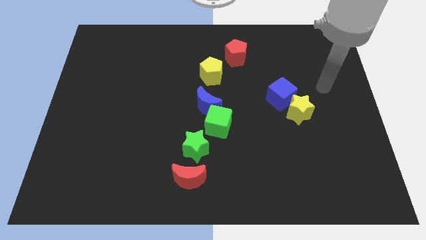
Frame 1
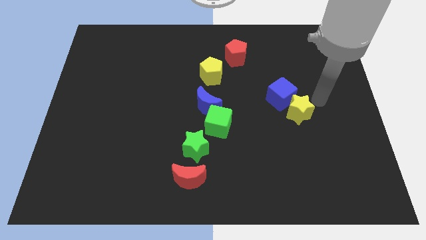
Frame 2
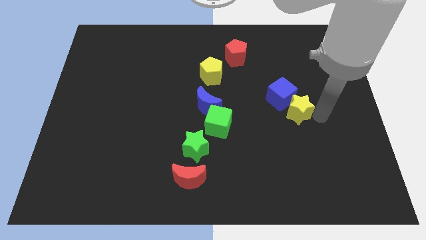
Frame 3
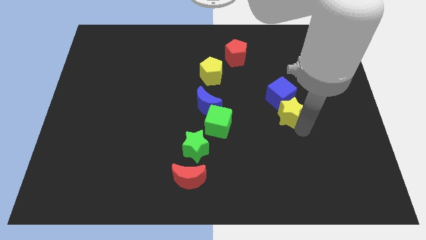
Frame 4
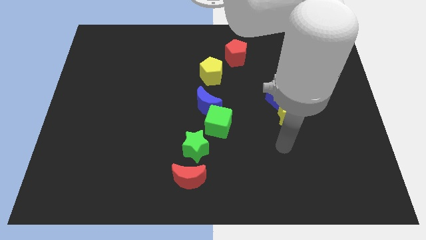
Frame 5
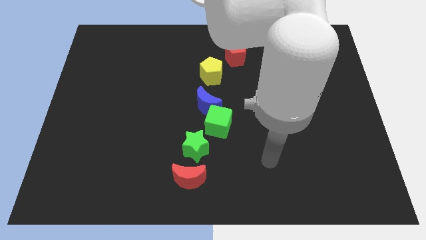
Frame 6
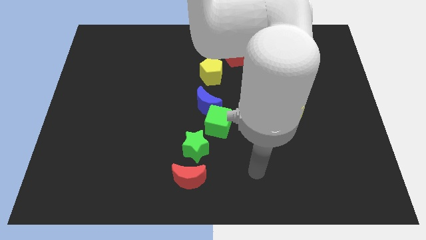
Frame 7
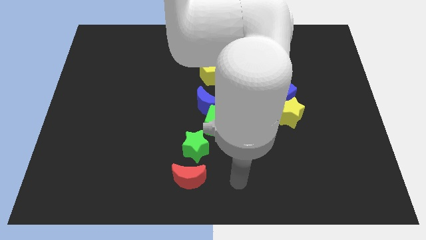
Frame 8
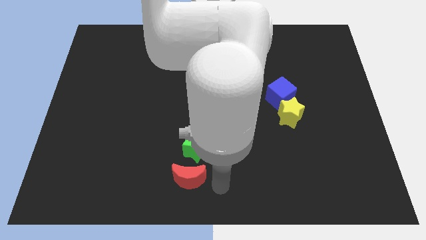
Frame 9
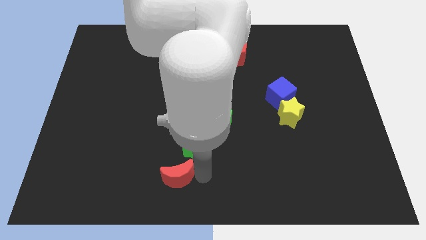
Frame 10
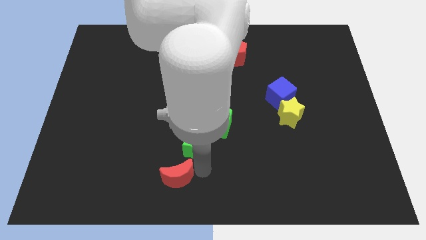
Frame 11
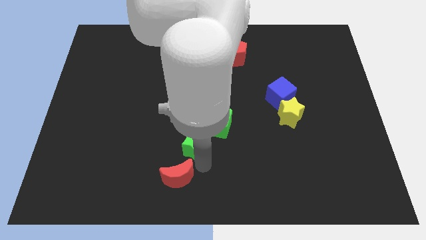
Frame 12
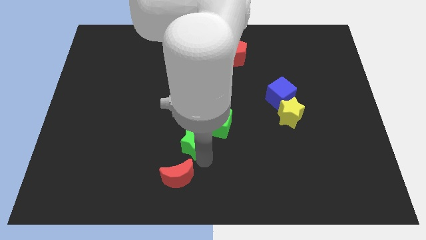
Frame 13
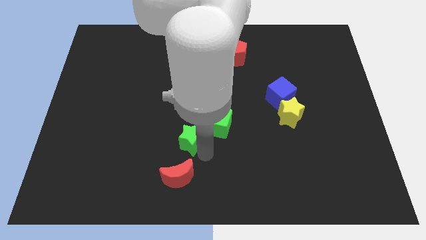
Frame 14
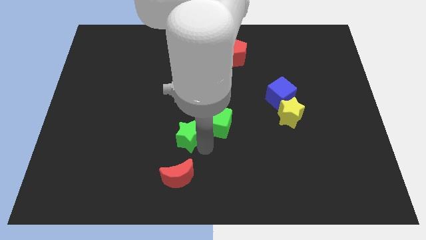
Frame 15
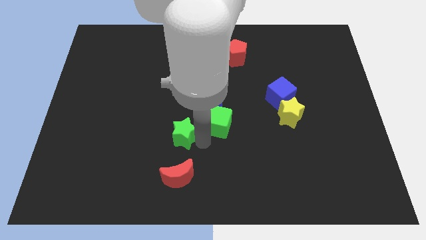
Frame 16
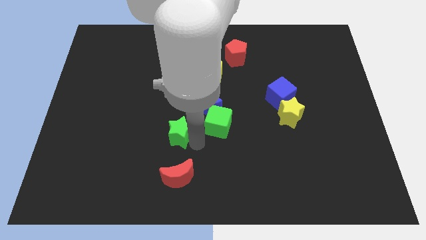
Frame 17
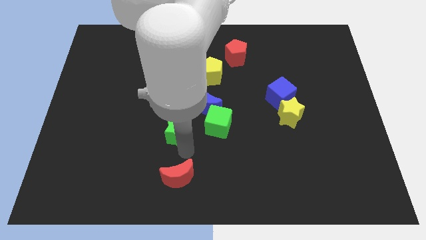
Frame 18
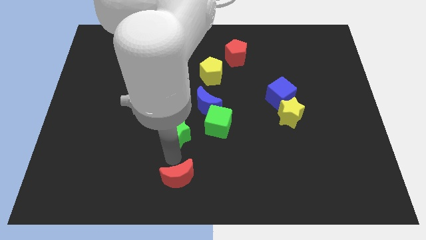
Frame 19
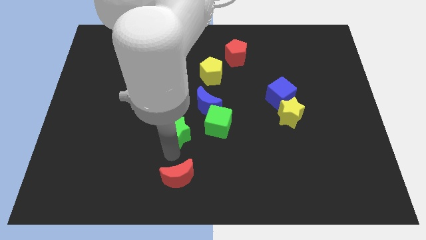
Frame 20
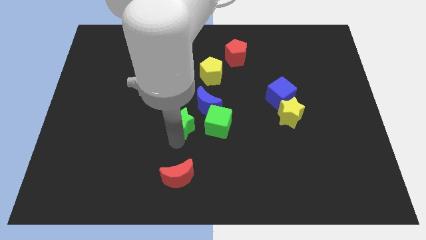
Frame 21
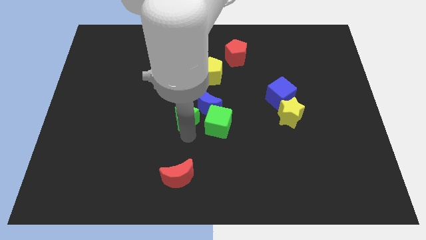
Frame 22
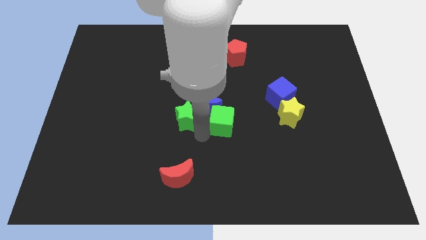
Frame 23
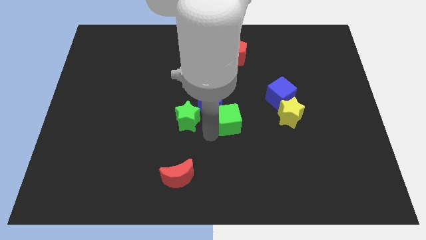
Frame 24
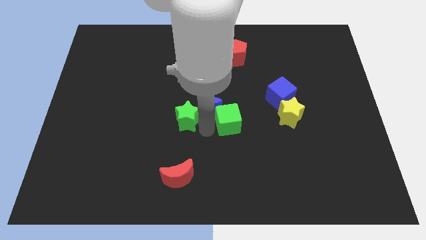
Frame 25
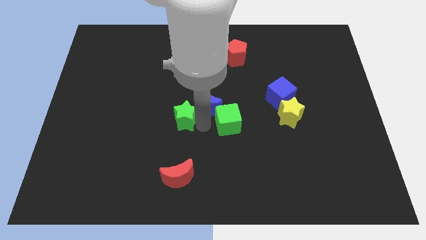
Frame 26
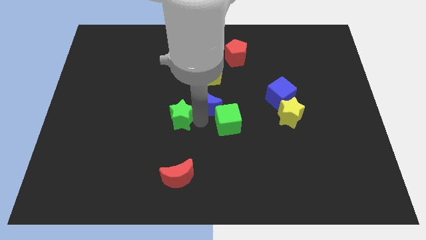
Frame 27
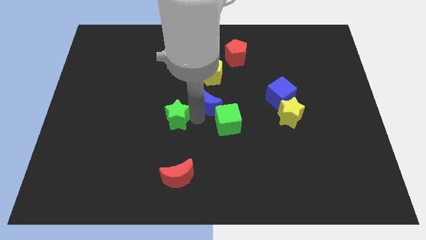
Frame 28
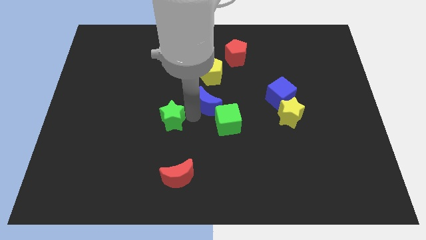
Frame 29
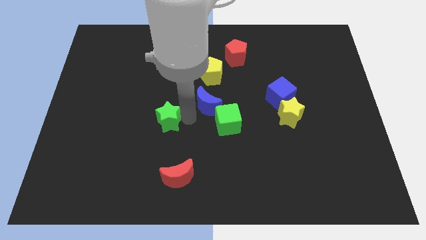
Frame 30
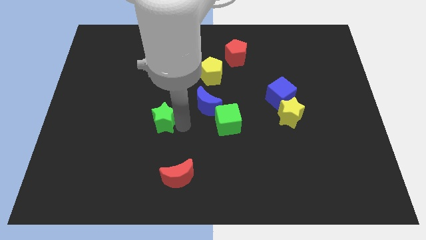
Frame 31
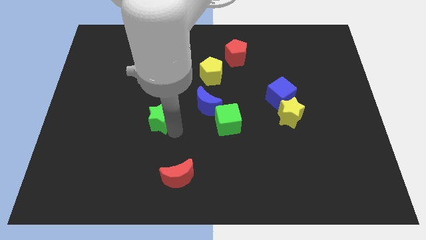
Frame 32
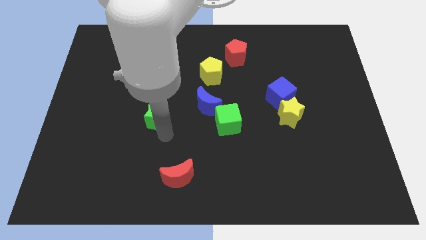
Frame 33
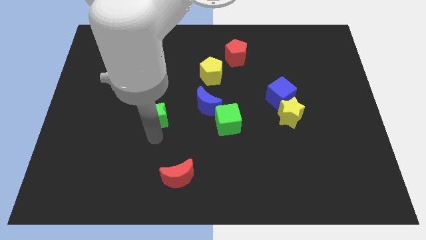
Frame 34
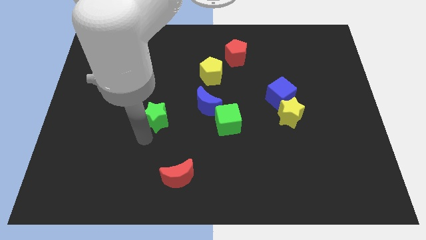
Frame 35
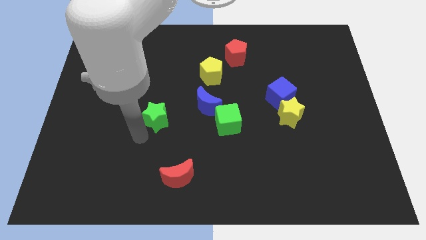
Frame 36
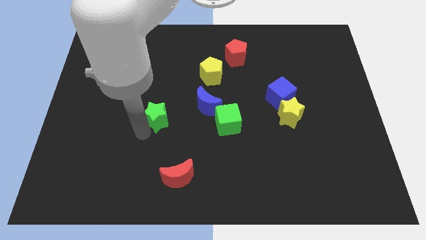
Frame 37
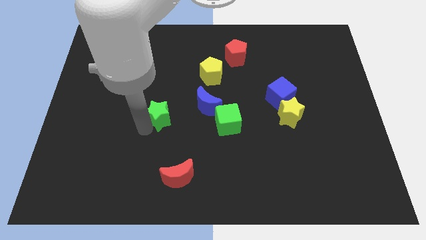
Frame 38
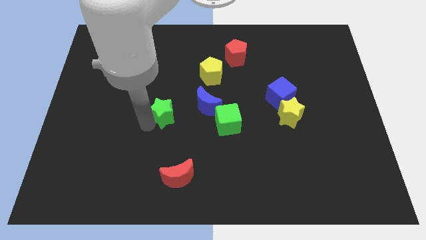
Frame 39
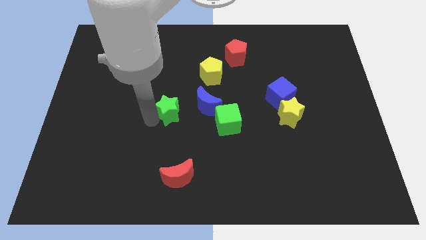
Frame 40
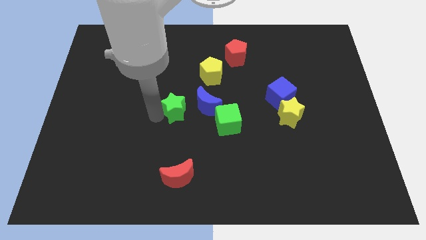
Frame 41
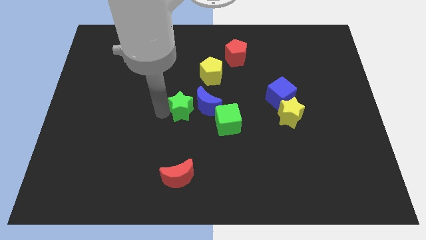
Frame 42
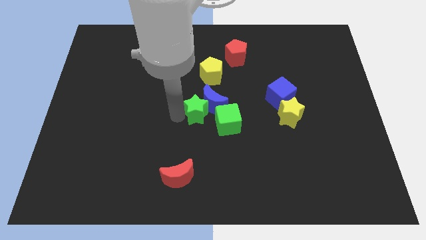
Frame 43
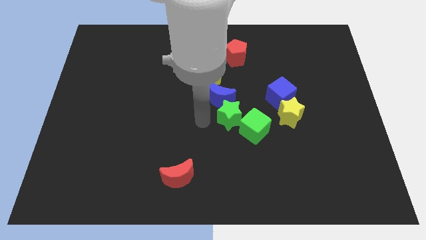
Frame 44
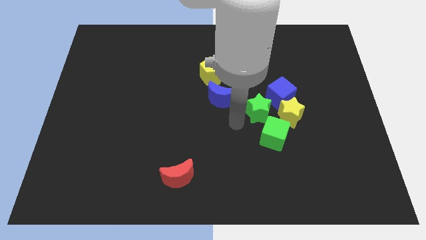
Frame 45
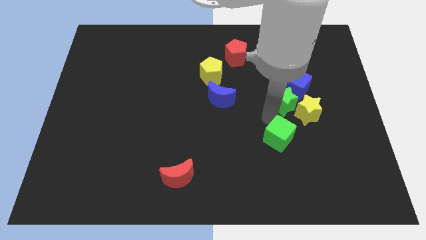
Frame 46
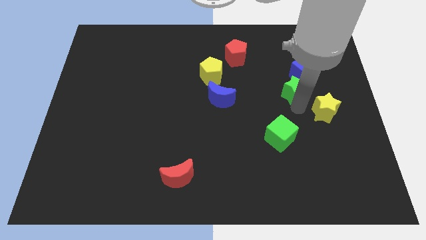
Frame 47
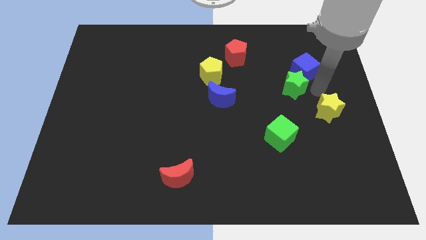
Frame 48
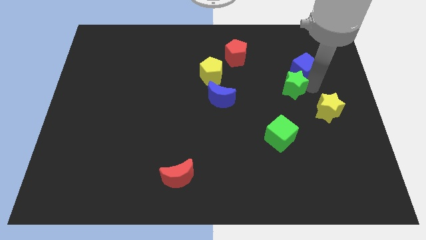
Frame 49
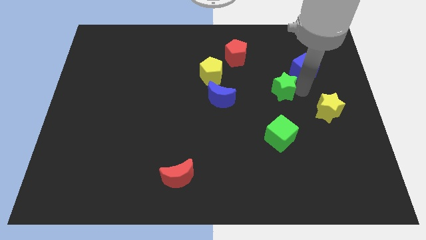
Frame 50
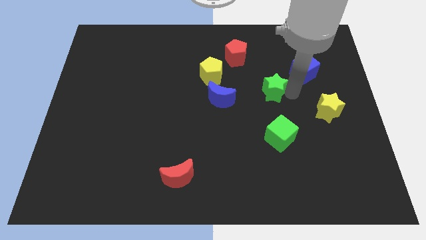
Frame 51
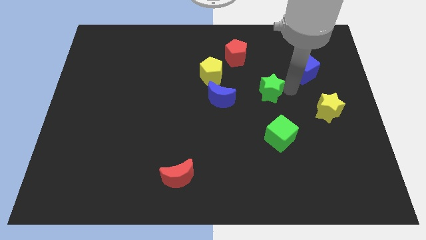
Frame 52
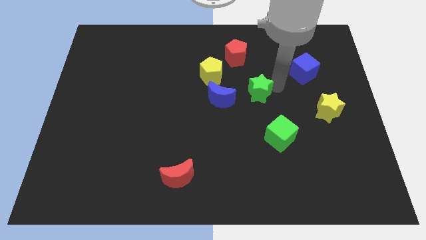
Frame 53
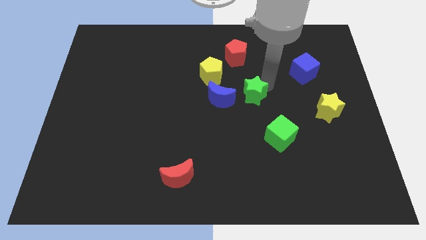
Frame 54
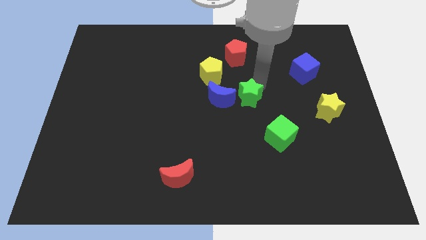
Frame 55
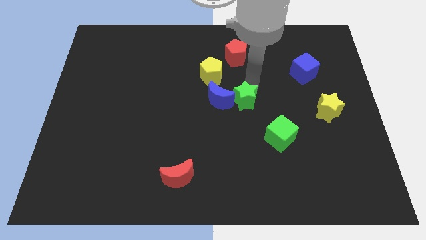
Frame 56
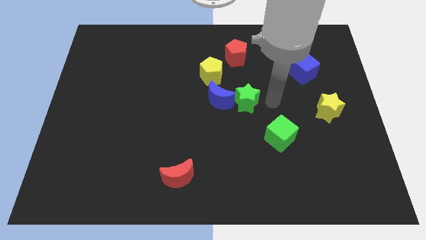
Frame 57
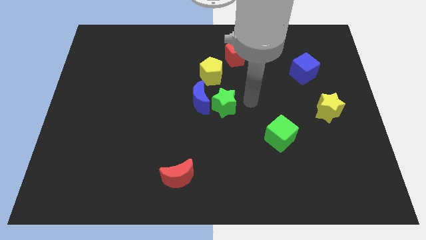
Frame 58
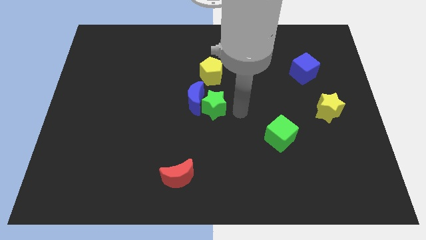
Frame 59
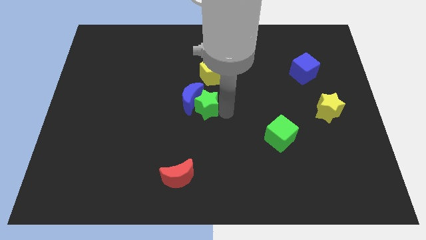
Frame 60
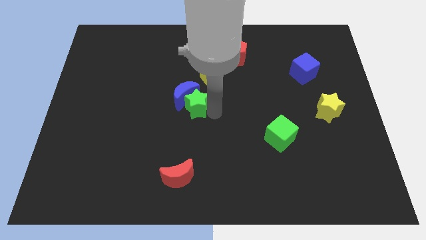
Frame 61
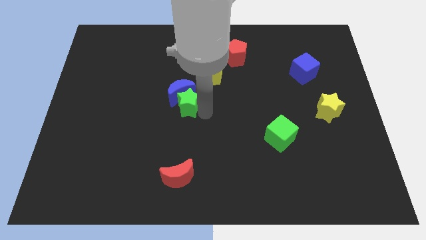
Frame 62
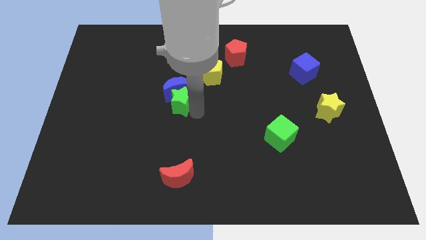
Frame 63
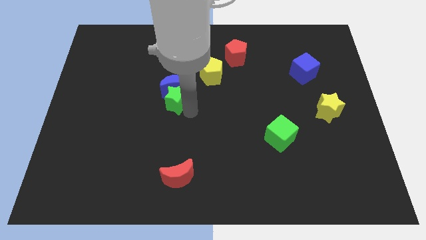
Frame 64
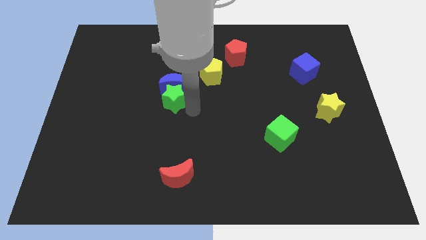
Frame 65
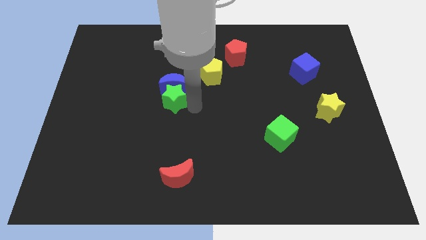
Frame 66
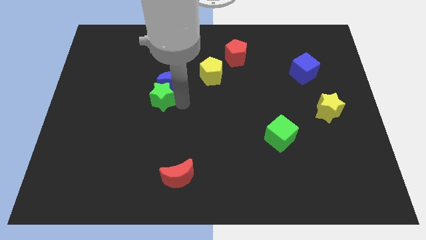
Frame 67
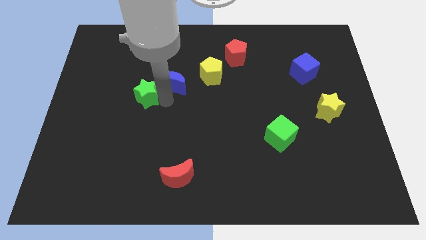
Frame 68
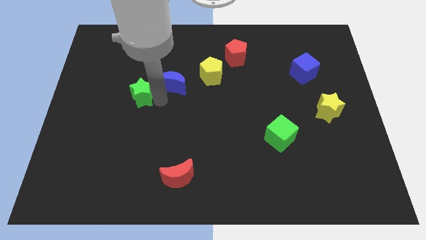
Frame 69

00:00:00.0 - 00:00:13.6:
move the green star diagonally up and left

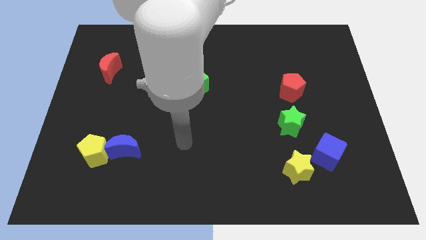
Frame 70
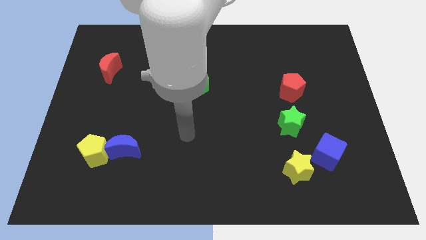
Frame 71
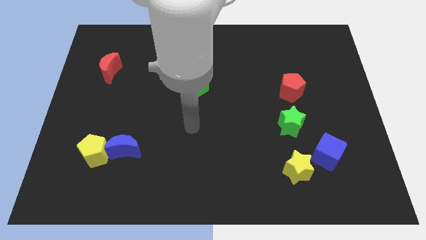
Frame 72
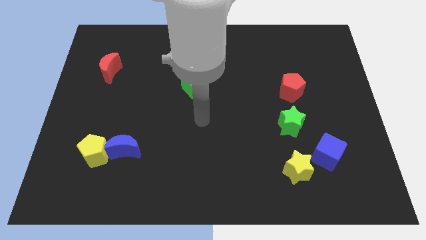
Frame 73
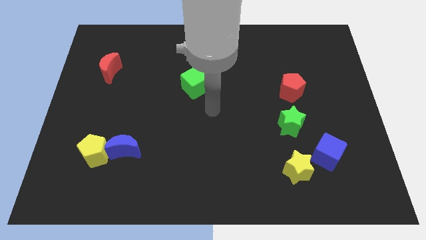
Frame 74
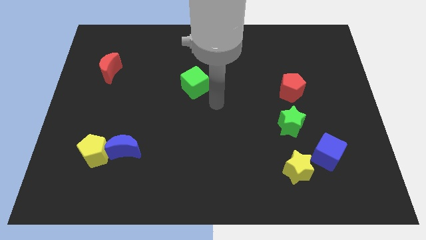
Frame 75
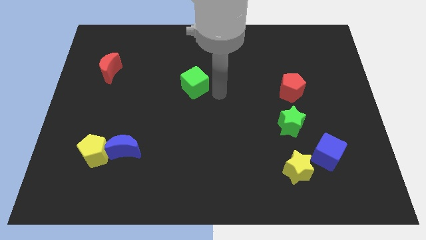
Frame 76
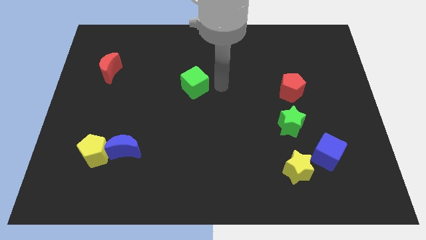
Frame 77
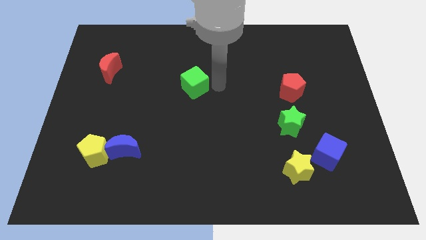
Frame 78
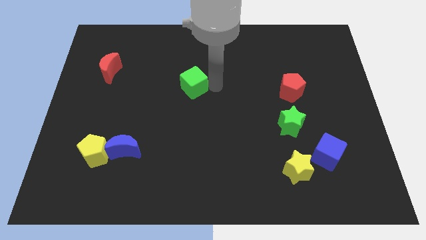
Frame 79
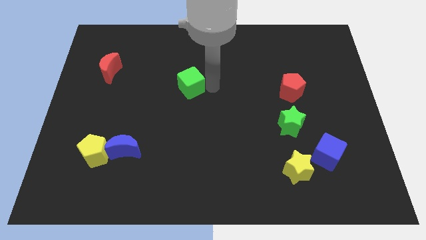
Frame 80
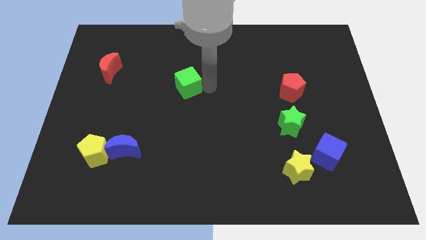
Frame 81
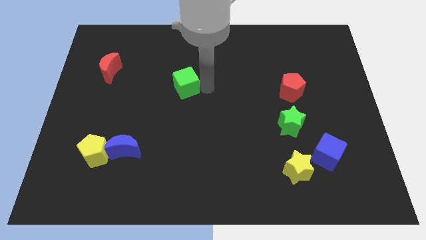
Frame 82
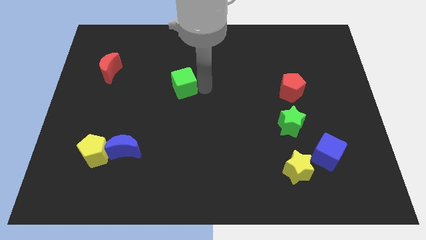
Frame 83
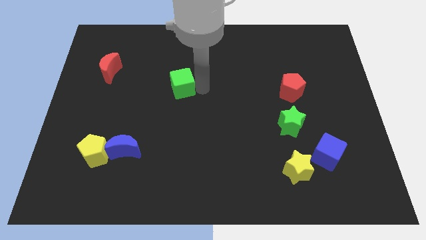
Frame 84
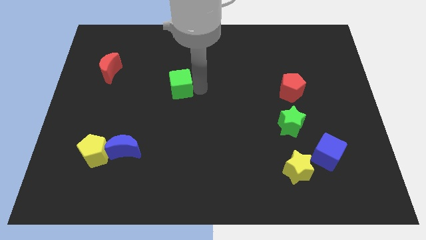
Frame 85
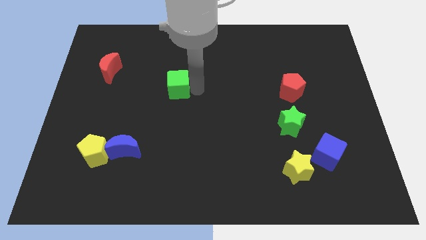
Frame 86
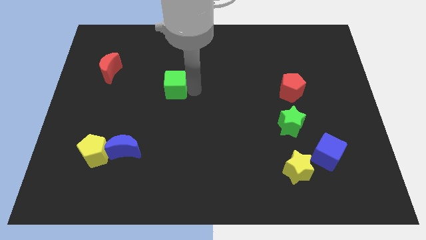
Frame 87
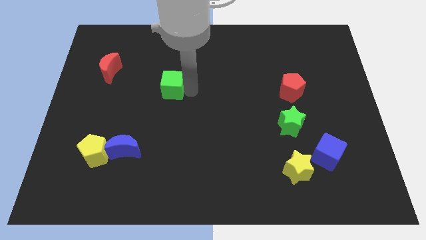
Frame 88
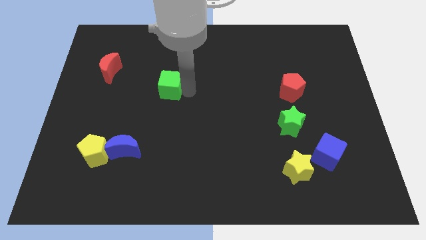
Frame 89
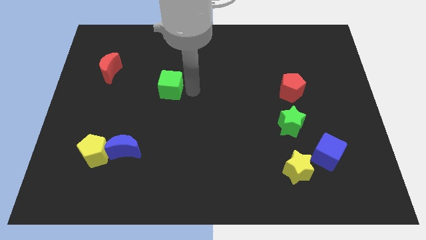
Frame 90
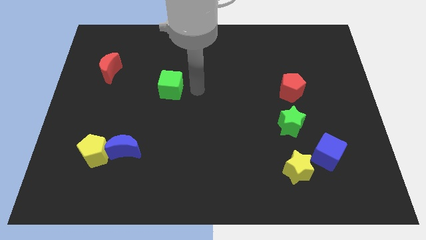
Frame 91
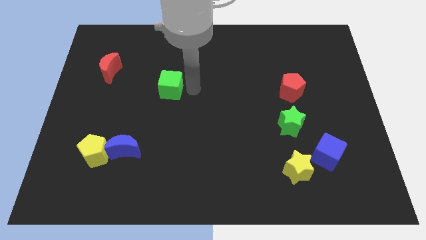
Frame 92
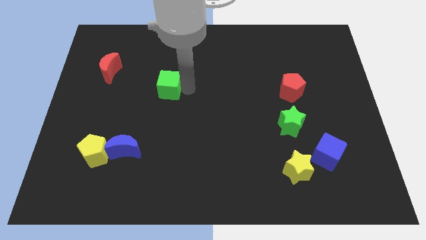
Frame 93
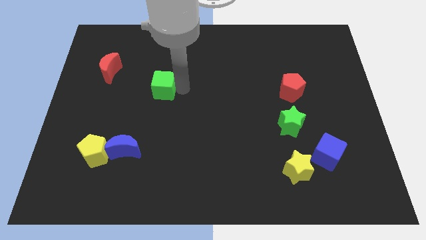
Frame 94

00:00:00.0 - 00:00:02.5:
slightly push the green cube left
